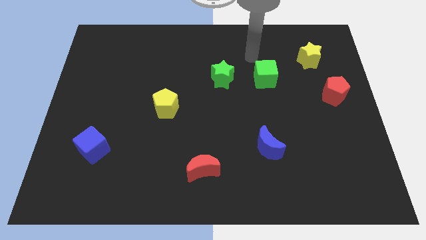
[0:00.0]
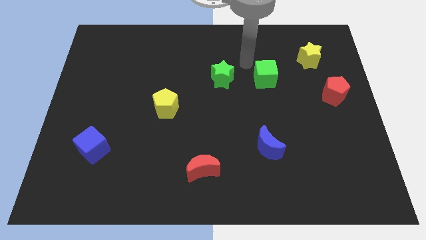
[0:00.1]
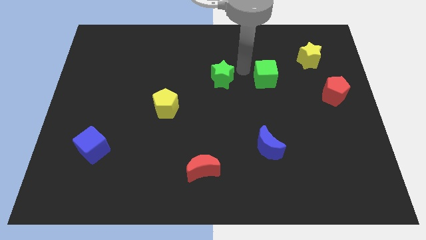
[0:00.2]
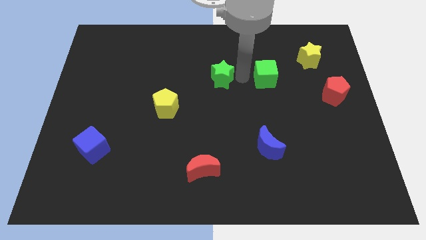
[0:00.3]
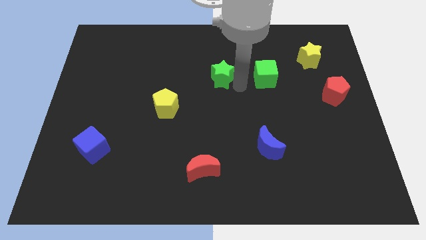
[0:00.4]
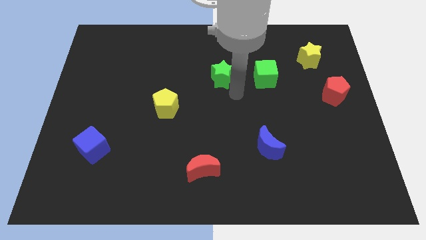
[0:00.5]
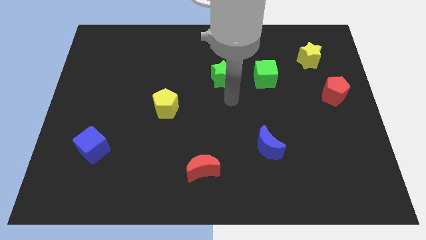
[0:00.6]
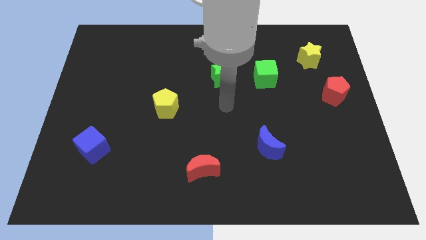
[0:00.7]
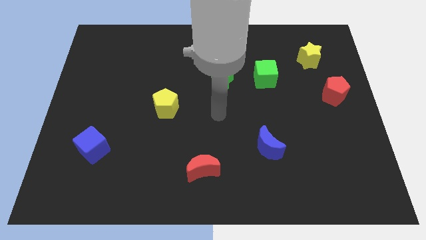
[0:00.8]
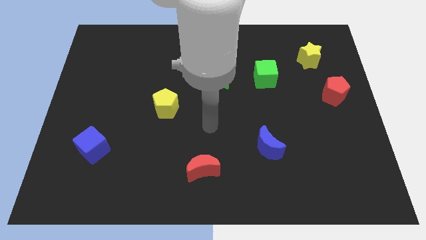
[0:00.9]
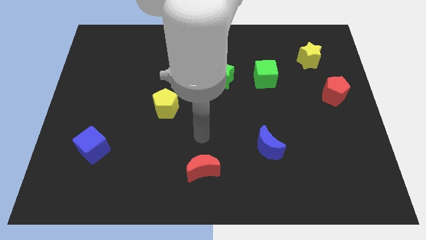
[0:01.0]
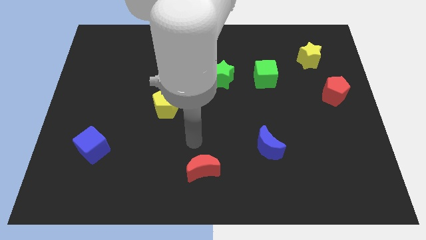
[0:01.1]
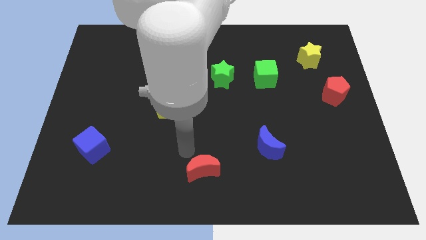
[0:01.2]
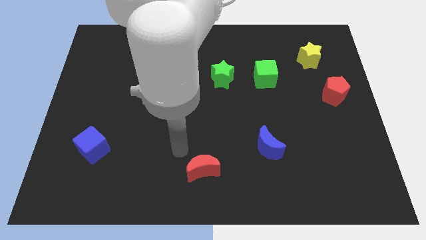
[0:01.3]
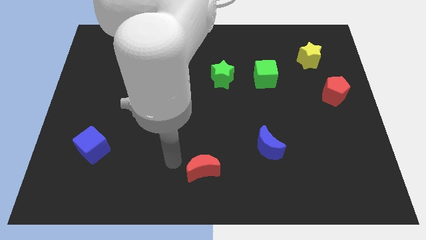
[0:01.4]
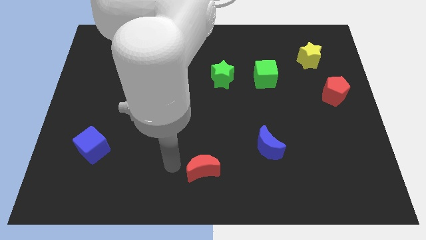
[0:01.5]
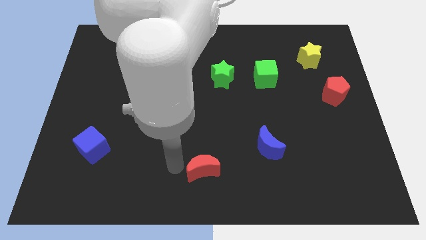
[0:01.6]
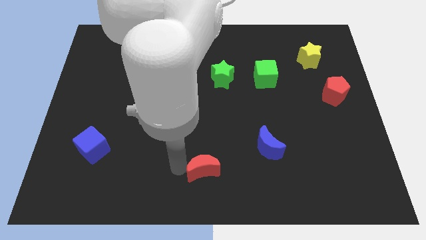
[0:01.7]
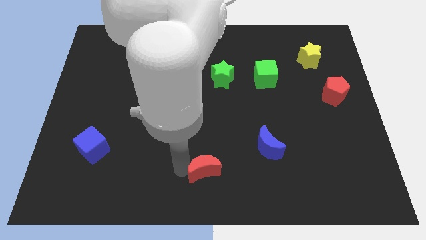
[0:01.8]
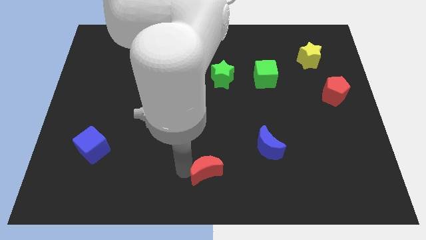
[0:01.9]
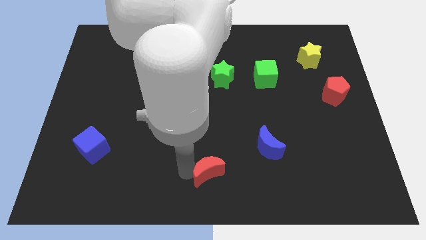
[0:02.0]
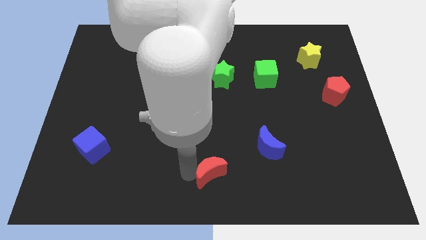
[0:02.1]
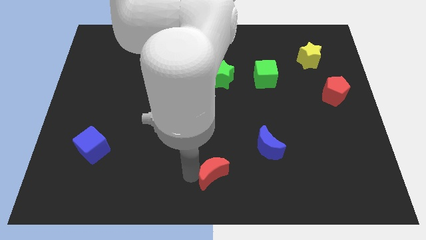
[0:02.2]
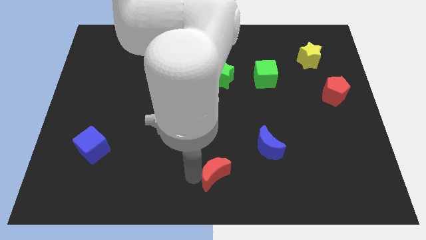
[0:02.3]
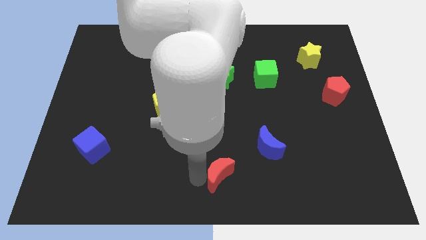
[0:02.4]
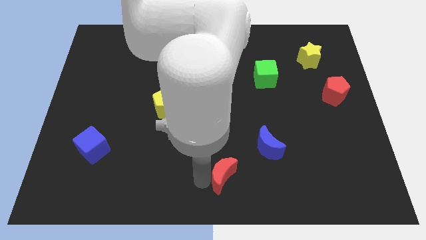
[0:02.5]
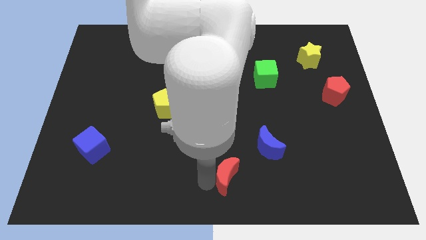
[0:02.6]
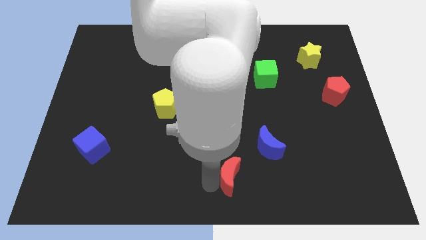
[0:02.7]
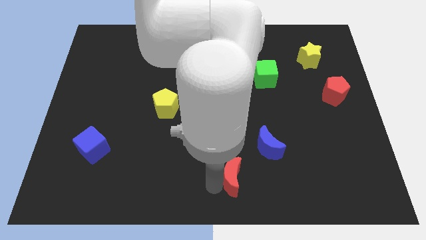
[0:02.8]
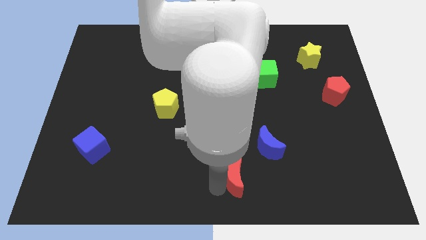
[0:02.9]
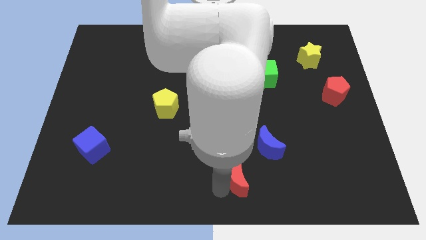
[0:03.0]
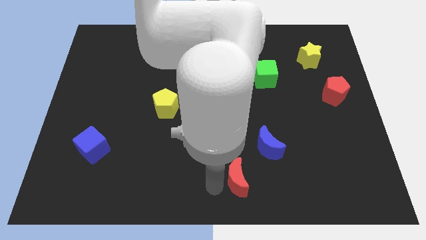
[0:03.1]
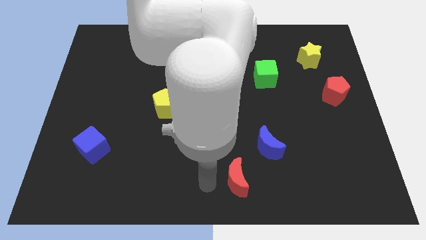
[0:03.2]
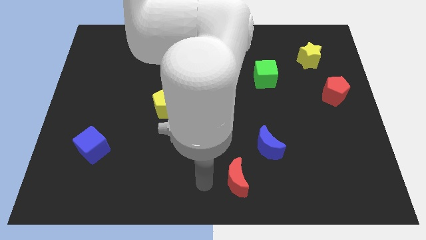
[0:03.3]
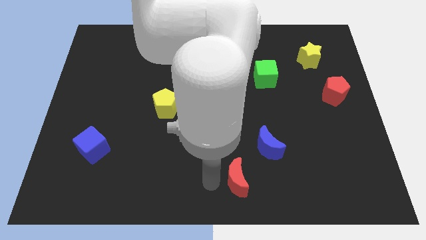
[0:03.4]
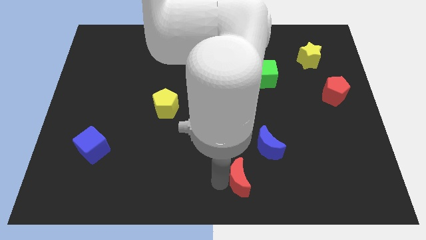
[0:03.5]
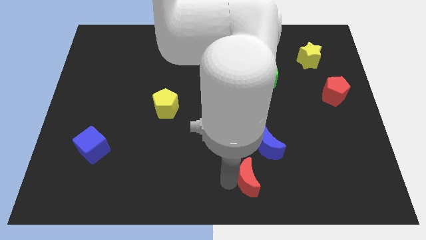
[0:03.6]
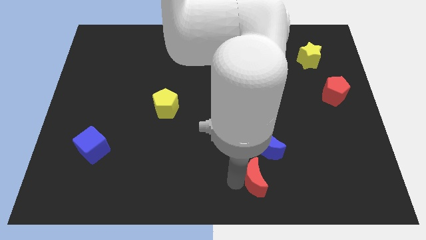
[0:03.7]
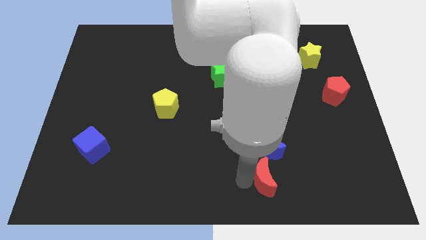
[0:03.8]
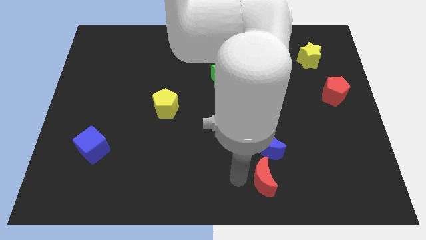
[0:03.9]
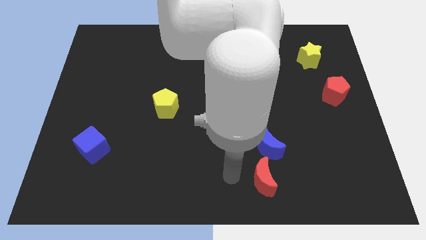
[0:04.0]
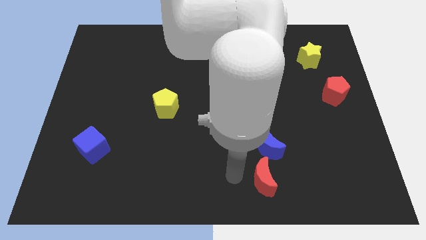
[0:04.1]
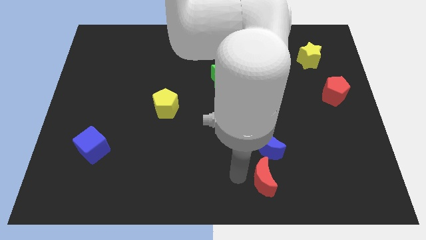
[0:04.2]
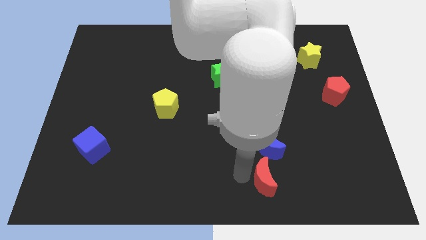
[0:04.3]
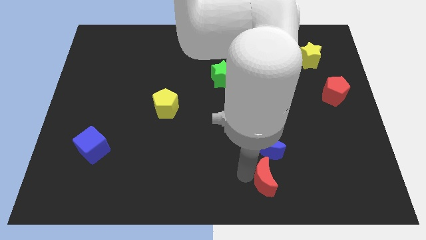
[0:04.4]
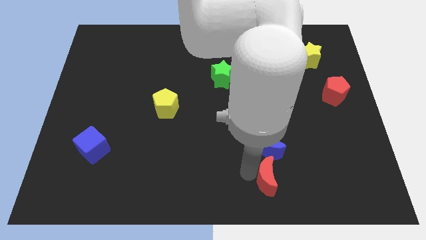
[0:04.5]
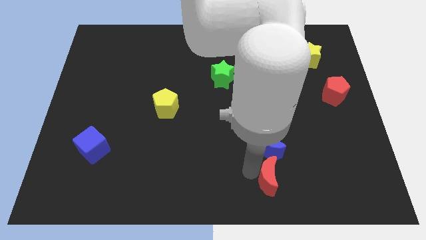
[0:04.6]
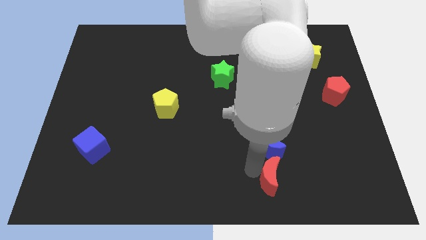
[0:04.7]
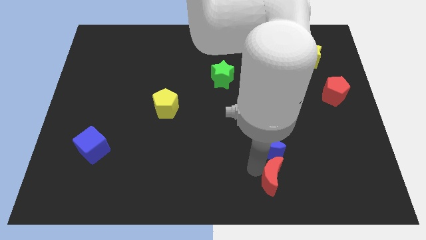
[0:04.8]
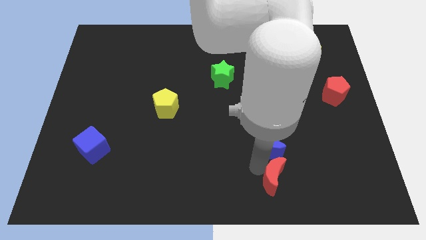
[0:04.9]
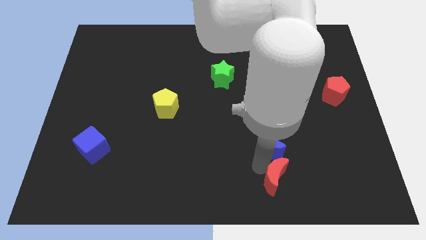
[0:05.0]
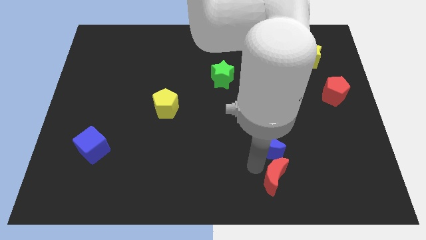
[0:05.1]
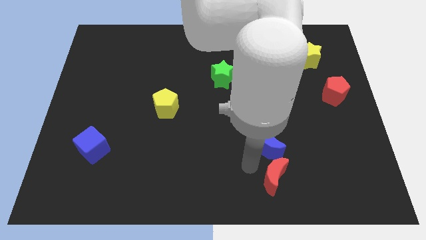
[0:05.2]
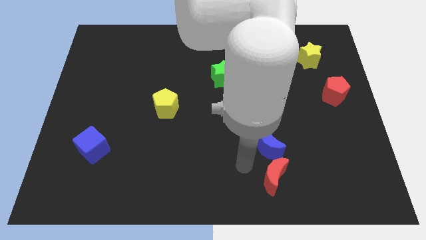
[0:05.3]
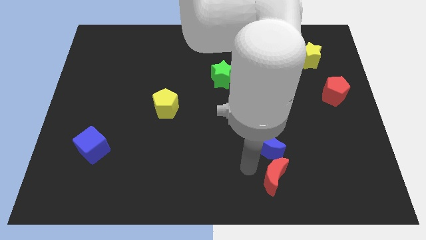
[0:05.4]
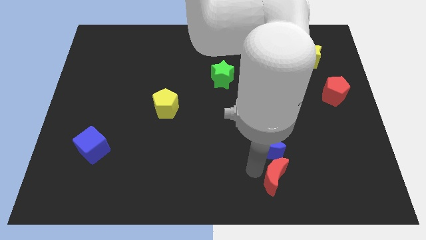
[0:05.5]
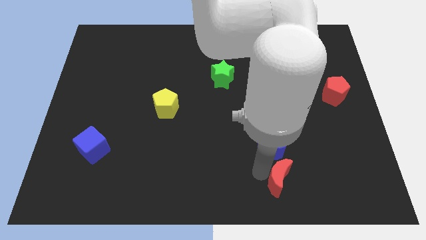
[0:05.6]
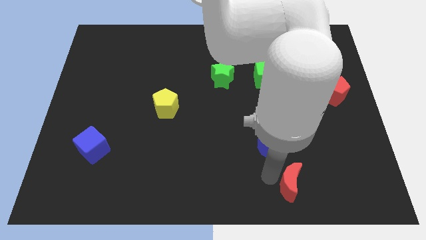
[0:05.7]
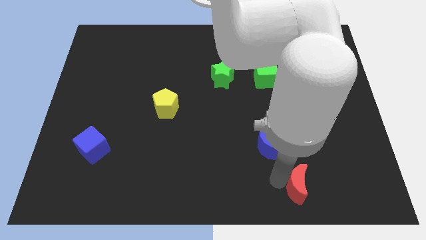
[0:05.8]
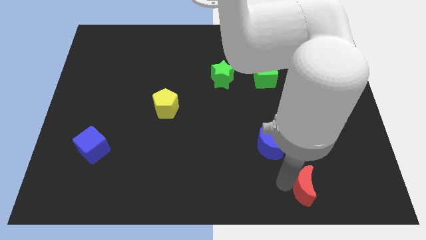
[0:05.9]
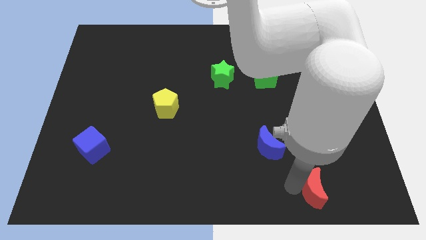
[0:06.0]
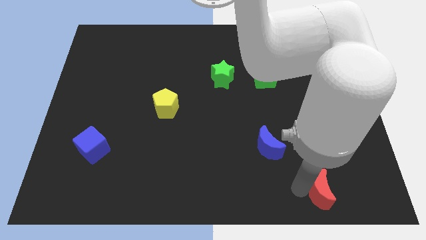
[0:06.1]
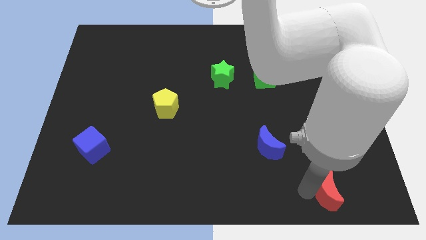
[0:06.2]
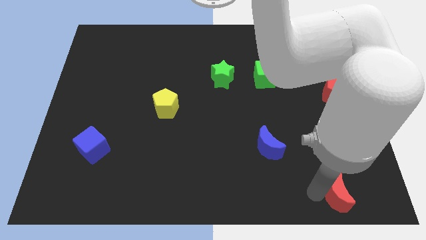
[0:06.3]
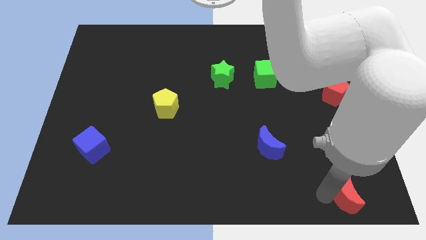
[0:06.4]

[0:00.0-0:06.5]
move the red moon to the lower right corner

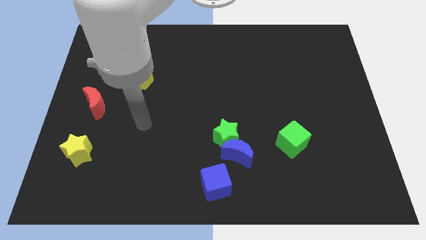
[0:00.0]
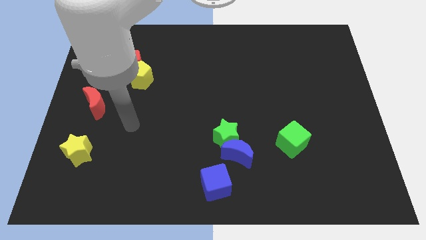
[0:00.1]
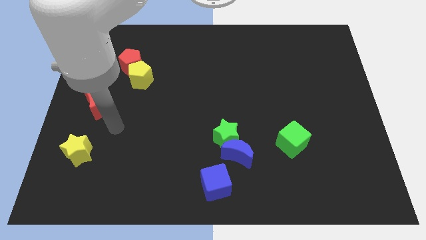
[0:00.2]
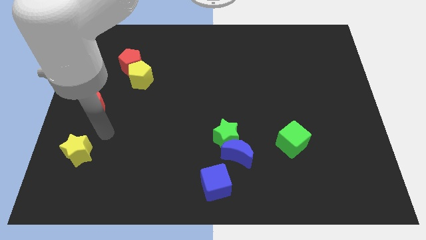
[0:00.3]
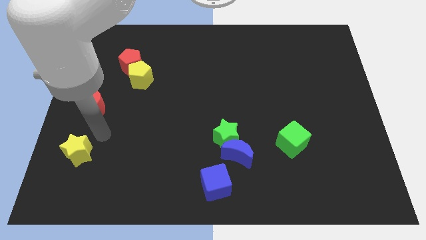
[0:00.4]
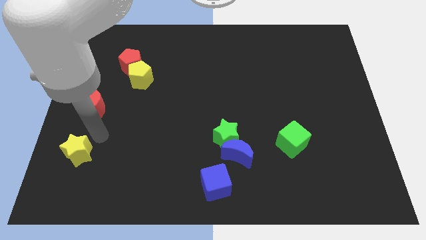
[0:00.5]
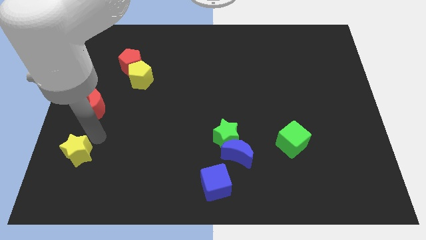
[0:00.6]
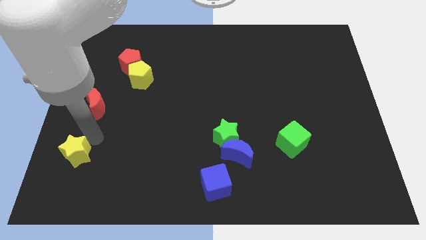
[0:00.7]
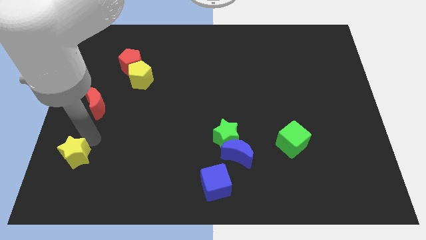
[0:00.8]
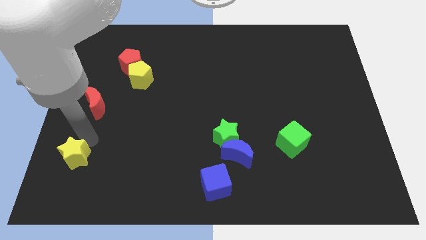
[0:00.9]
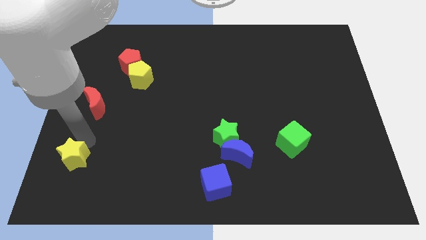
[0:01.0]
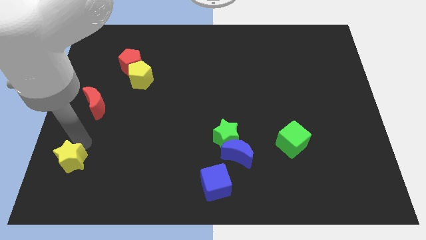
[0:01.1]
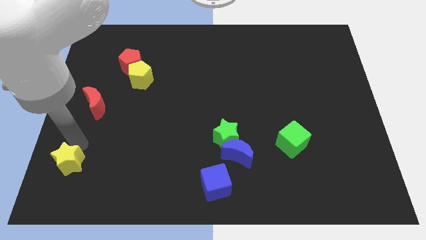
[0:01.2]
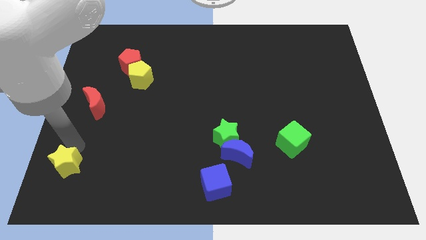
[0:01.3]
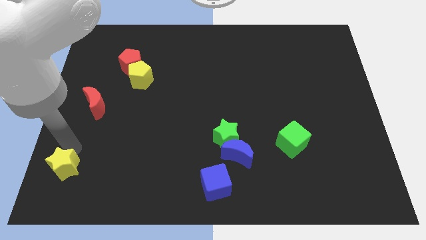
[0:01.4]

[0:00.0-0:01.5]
slide the yellow star to the lower left corner
